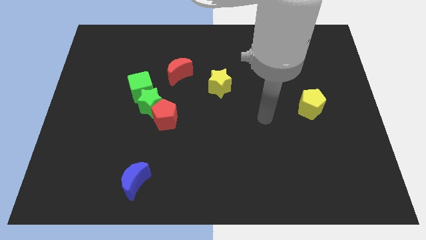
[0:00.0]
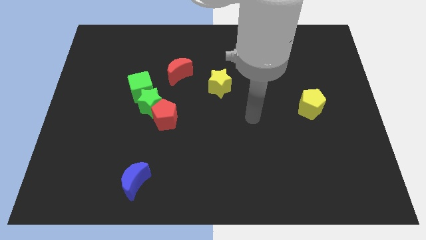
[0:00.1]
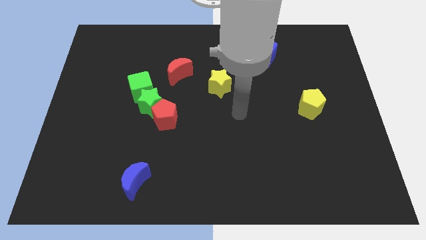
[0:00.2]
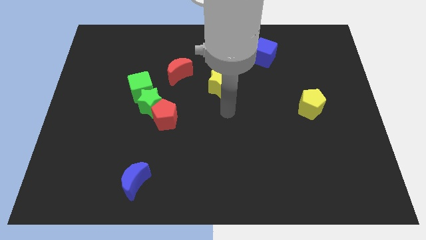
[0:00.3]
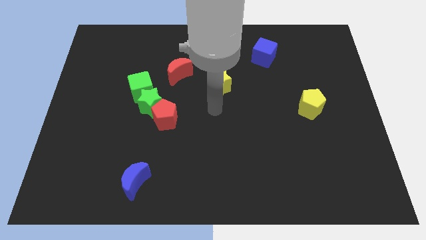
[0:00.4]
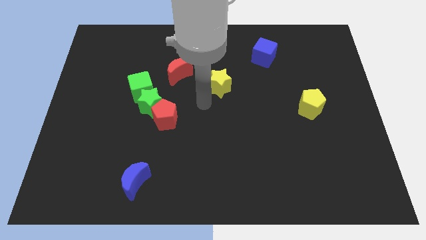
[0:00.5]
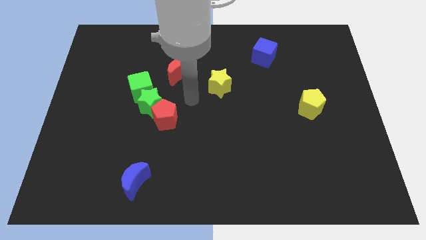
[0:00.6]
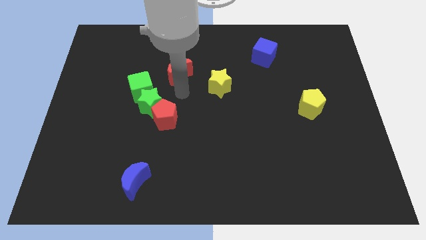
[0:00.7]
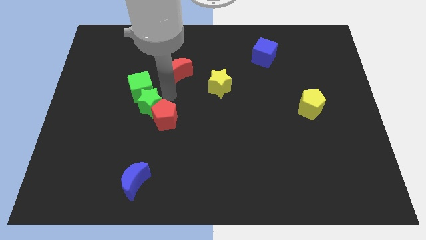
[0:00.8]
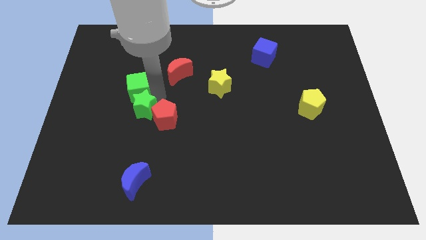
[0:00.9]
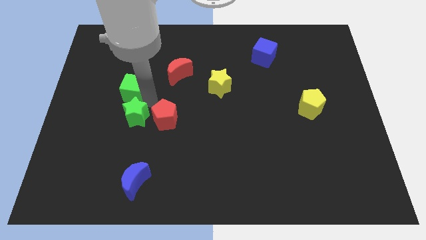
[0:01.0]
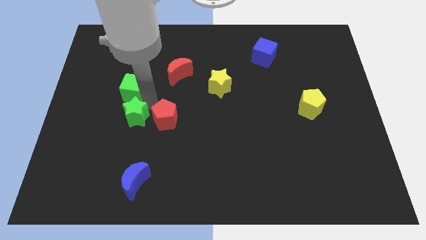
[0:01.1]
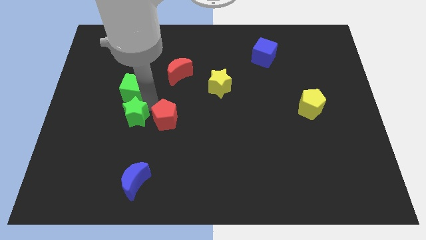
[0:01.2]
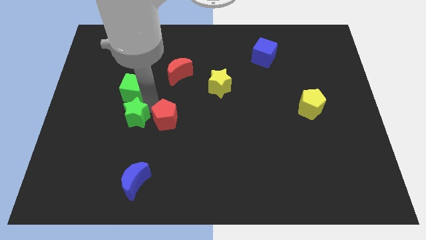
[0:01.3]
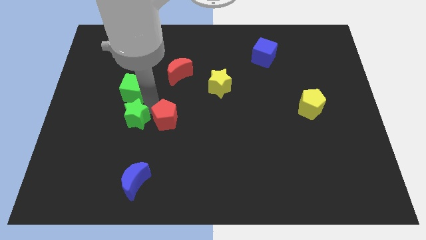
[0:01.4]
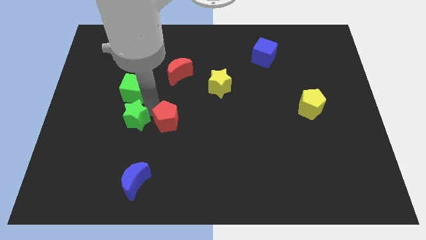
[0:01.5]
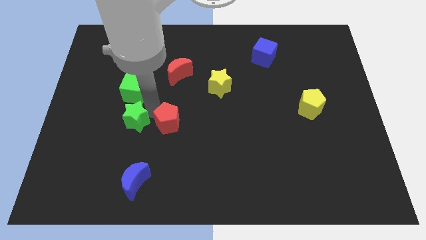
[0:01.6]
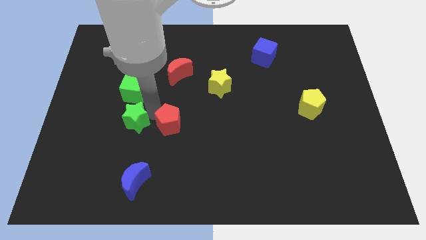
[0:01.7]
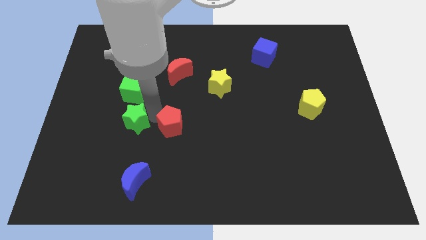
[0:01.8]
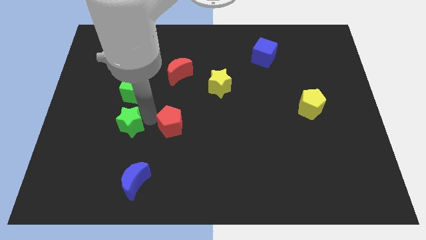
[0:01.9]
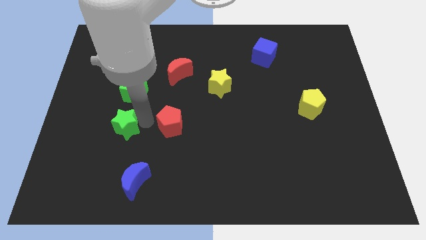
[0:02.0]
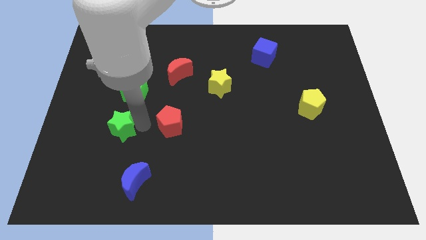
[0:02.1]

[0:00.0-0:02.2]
pull the red pentagon apart from the green star

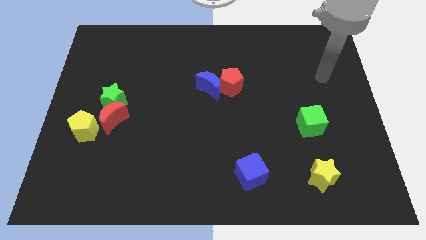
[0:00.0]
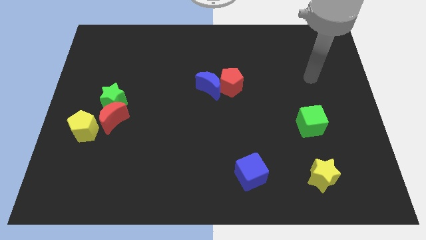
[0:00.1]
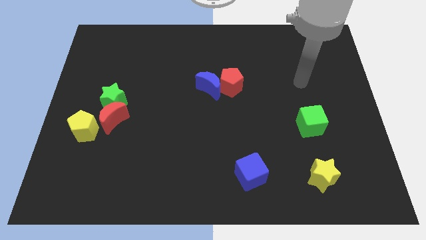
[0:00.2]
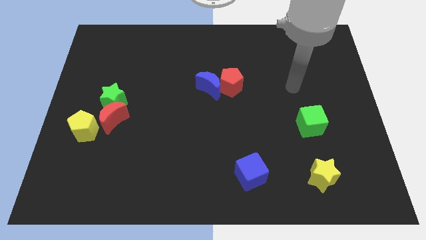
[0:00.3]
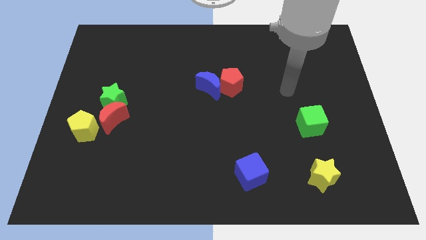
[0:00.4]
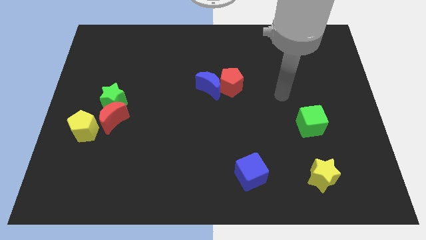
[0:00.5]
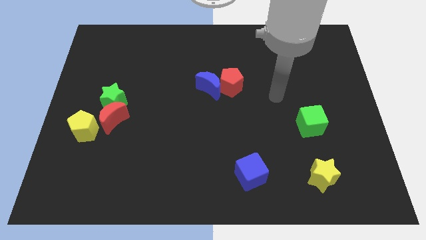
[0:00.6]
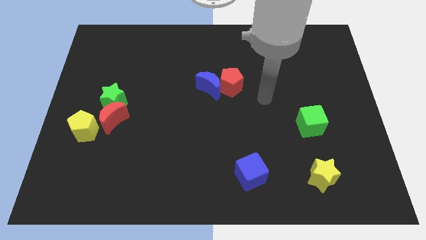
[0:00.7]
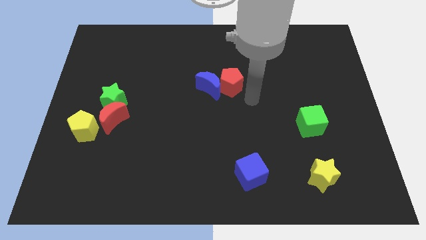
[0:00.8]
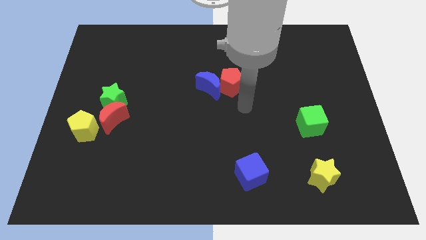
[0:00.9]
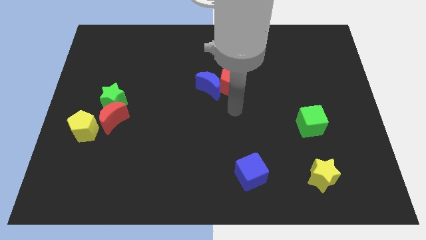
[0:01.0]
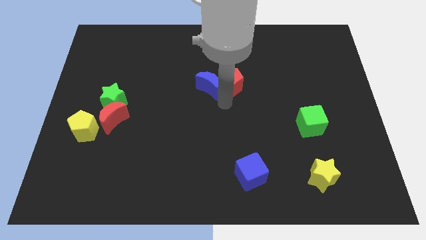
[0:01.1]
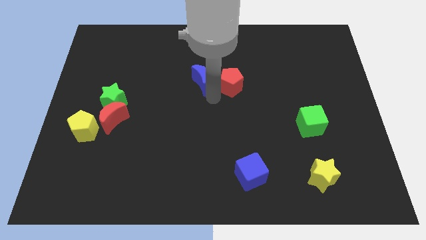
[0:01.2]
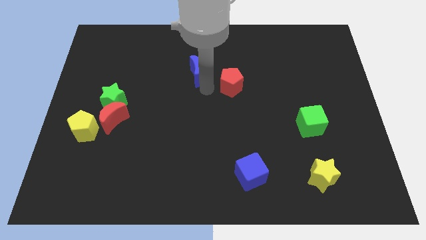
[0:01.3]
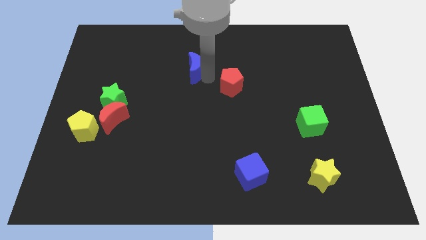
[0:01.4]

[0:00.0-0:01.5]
separate the red pentagon from the blue moon

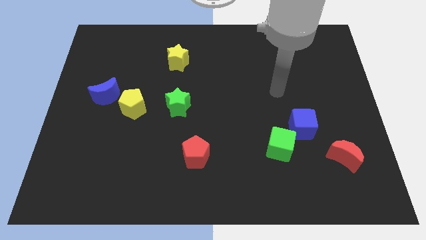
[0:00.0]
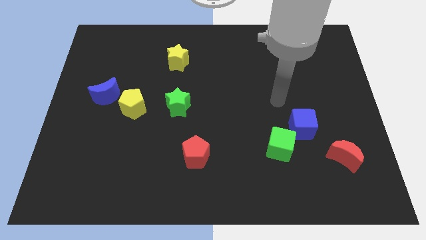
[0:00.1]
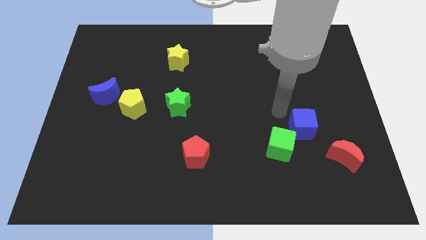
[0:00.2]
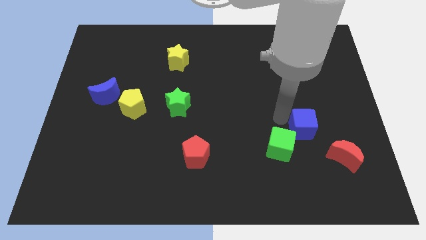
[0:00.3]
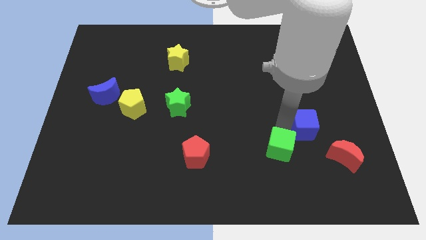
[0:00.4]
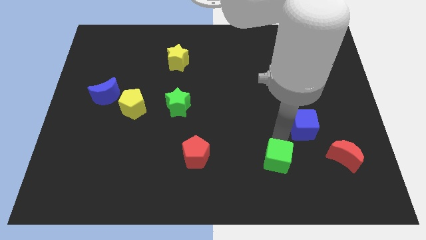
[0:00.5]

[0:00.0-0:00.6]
separate the blue cube from the green cube

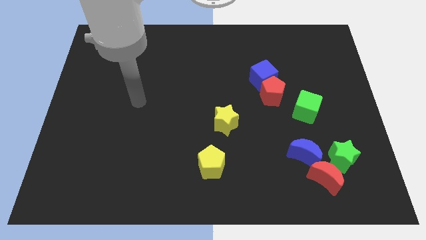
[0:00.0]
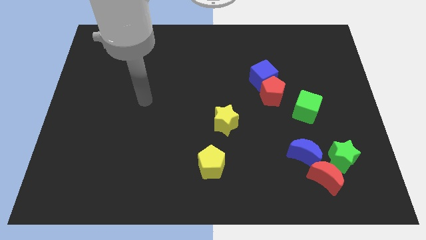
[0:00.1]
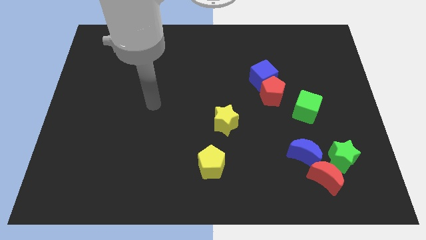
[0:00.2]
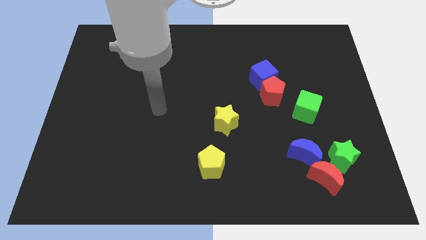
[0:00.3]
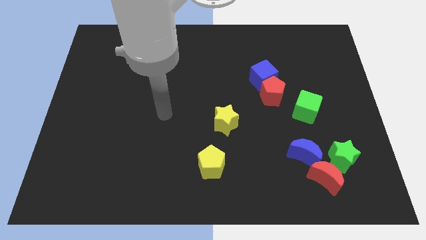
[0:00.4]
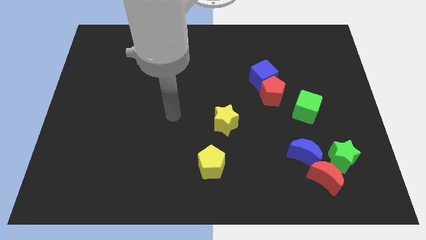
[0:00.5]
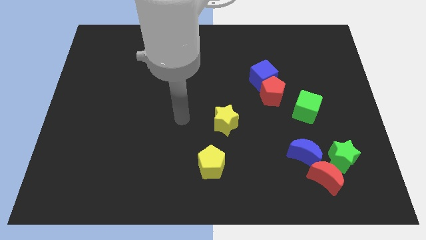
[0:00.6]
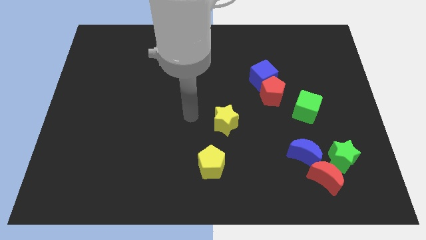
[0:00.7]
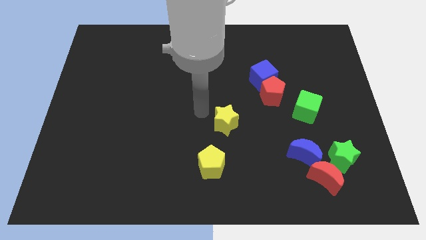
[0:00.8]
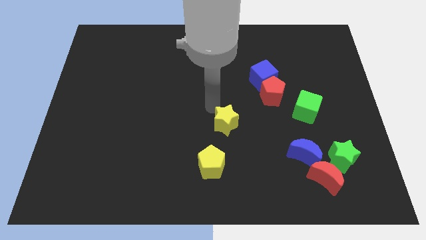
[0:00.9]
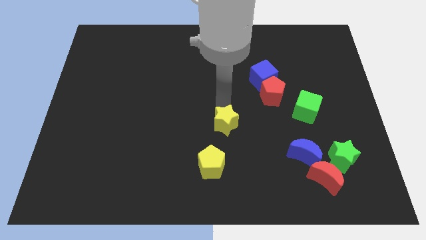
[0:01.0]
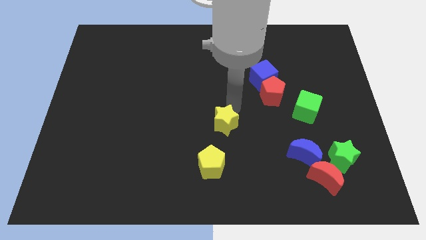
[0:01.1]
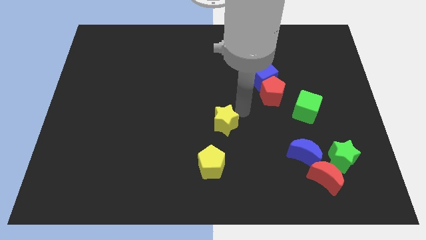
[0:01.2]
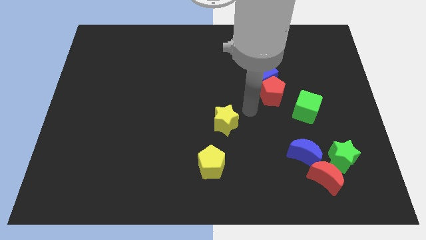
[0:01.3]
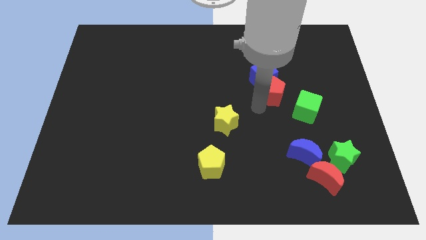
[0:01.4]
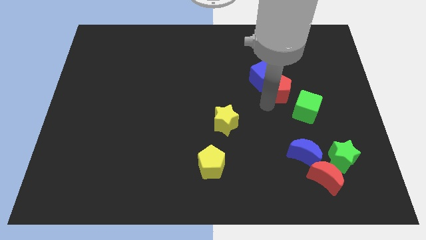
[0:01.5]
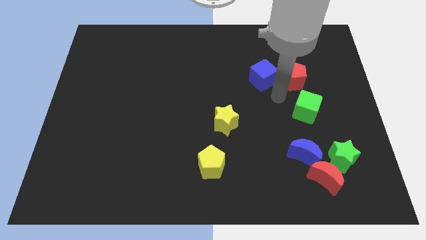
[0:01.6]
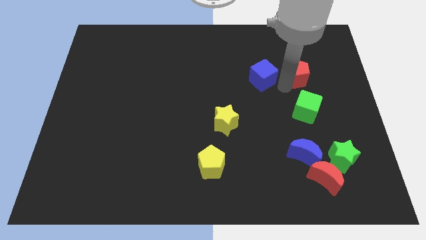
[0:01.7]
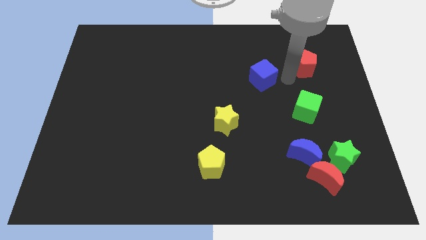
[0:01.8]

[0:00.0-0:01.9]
separate the blue cube from the red pentagon

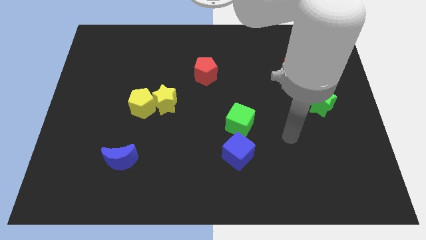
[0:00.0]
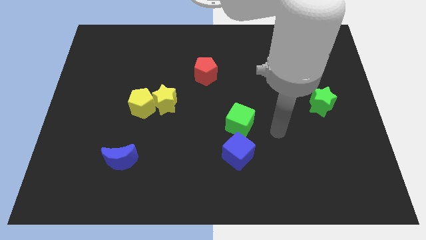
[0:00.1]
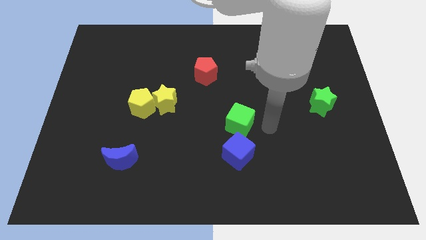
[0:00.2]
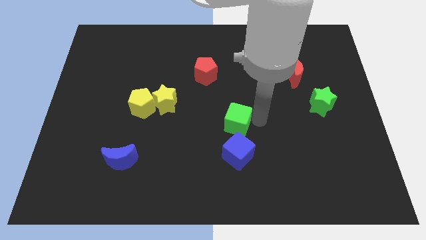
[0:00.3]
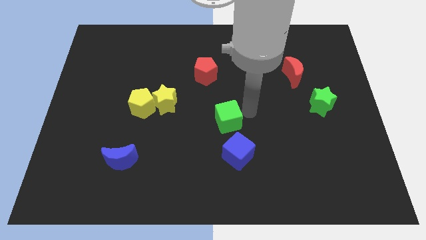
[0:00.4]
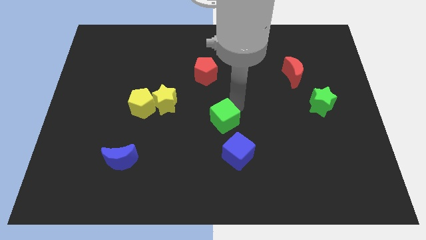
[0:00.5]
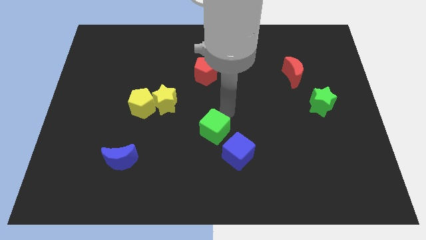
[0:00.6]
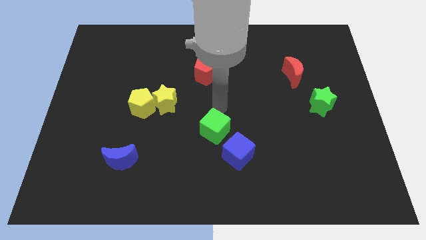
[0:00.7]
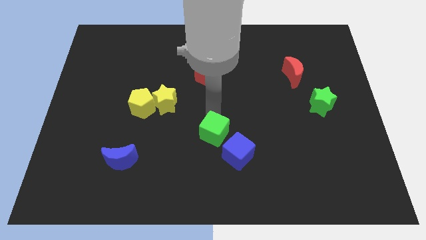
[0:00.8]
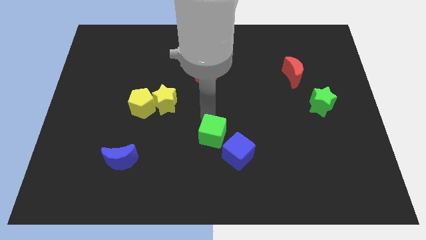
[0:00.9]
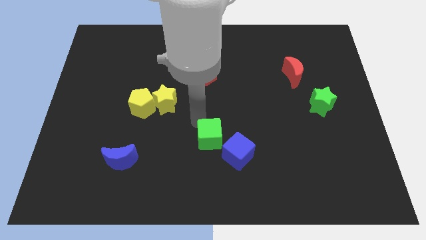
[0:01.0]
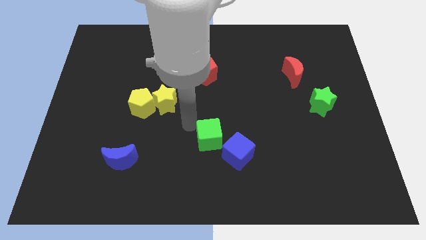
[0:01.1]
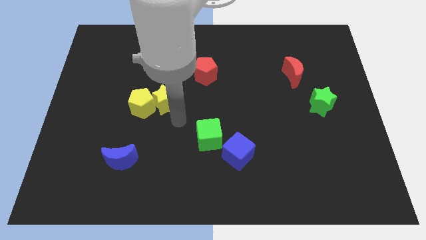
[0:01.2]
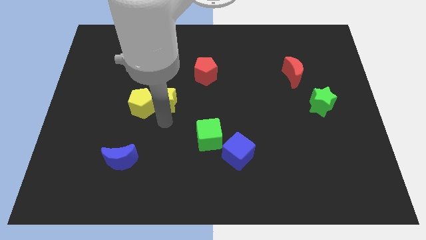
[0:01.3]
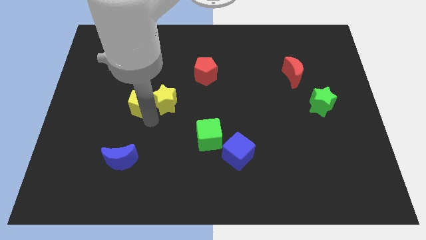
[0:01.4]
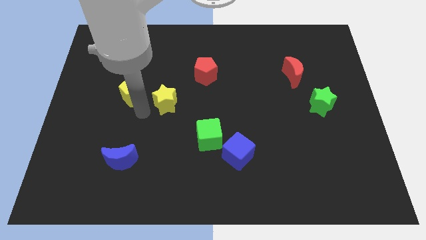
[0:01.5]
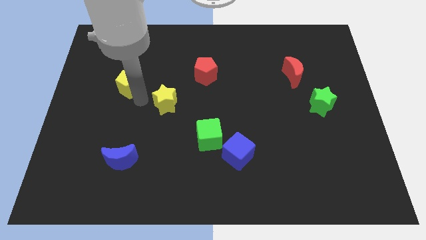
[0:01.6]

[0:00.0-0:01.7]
pull the yellow star apart from the yellow pentagon

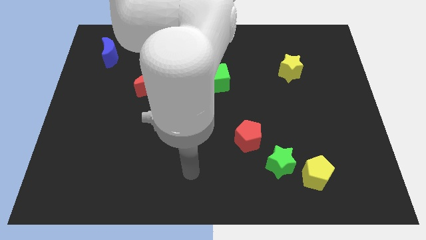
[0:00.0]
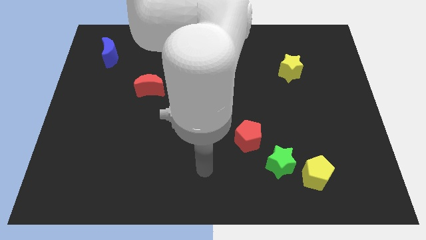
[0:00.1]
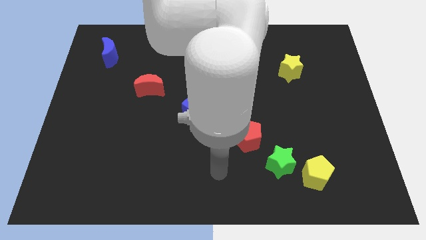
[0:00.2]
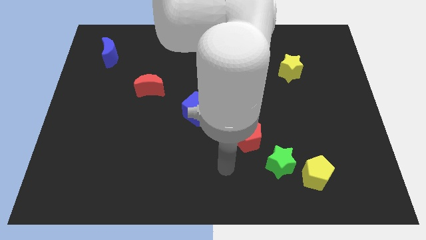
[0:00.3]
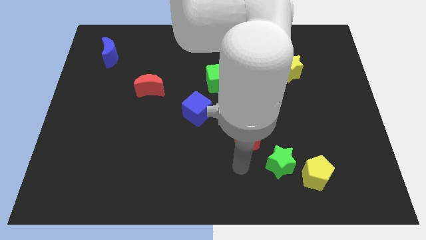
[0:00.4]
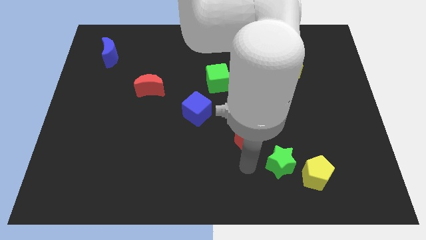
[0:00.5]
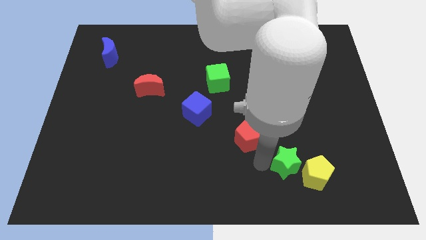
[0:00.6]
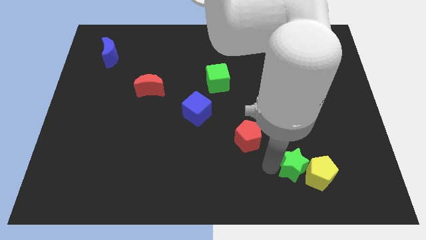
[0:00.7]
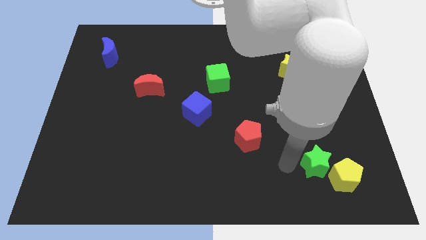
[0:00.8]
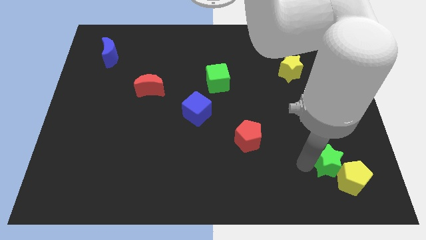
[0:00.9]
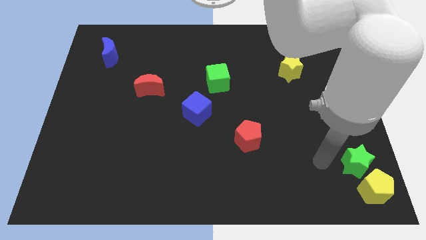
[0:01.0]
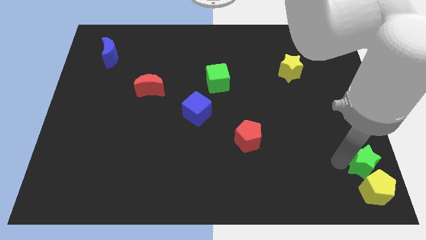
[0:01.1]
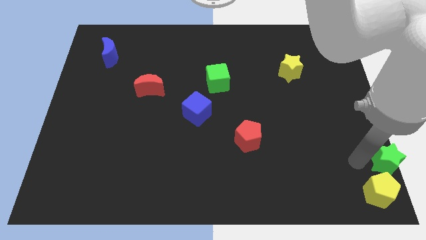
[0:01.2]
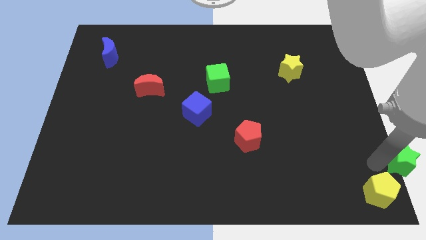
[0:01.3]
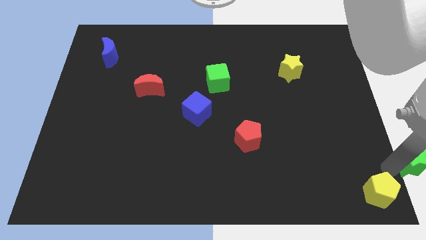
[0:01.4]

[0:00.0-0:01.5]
separate the yellow pentagon from the green star
